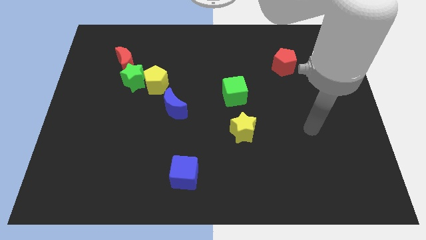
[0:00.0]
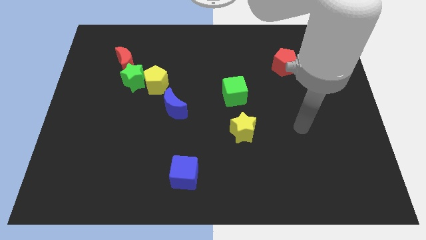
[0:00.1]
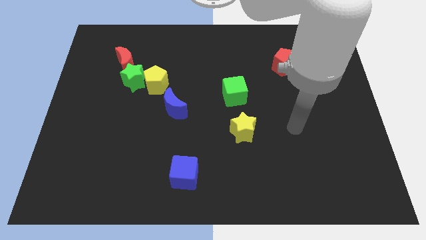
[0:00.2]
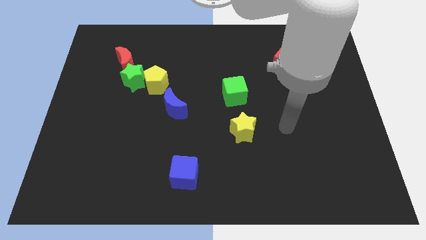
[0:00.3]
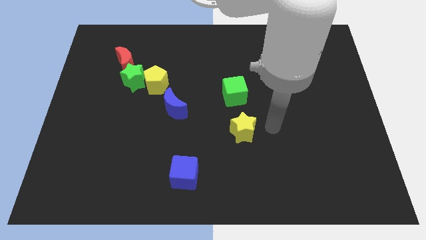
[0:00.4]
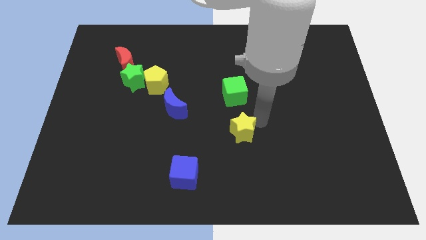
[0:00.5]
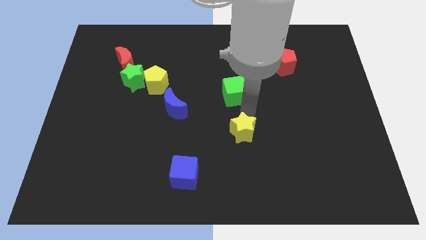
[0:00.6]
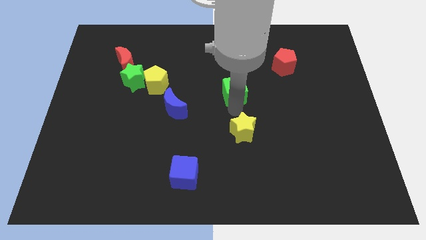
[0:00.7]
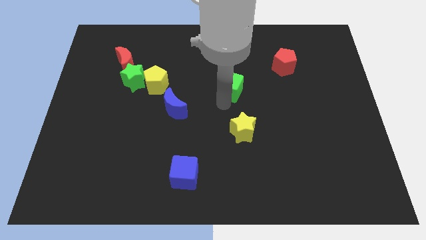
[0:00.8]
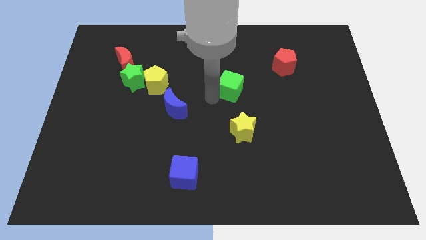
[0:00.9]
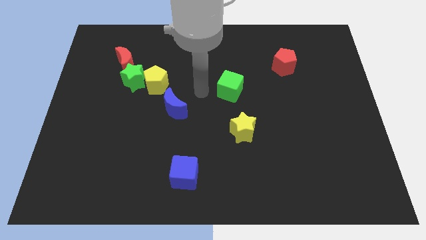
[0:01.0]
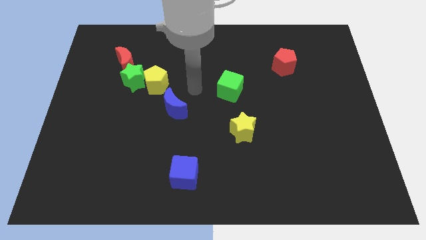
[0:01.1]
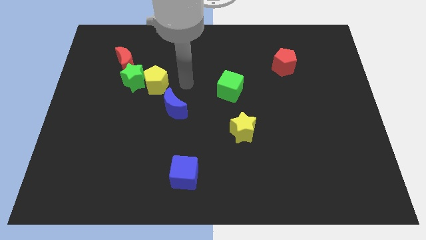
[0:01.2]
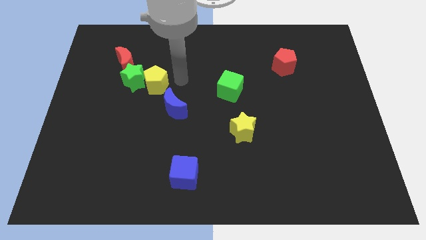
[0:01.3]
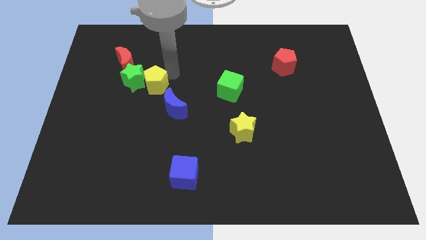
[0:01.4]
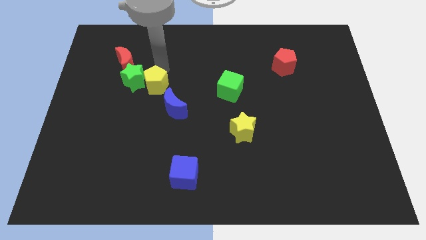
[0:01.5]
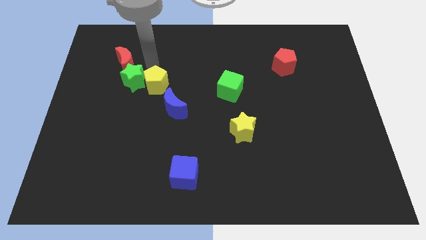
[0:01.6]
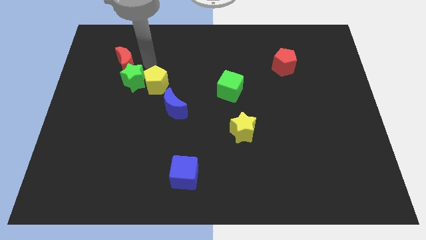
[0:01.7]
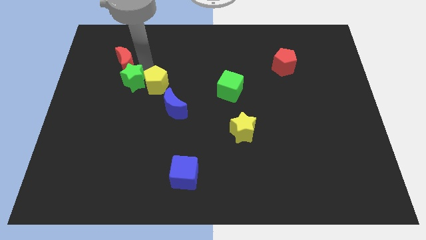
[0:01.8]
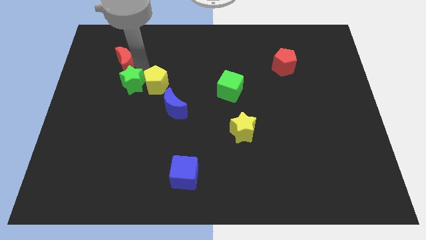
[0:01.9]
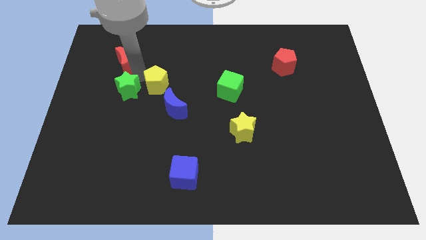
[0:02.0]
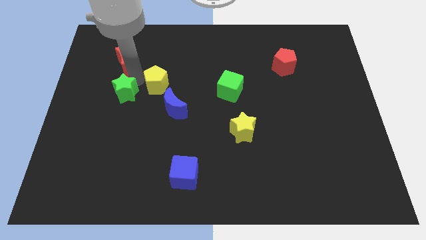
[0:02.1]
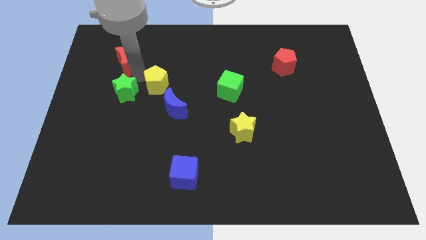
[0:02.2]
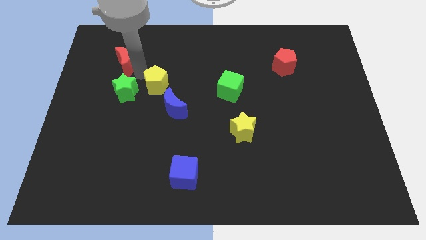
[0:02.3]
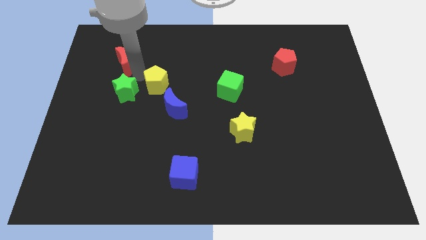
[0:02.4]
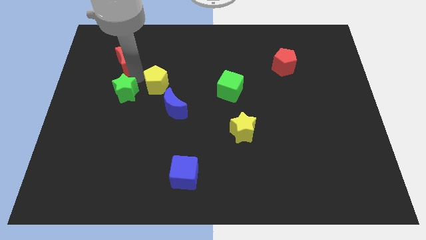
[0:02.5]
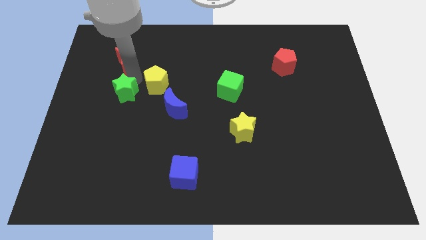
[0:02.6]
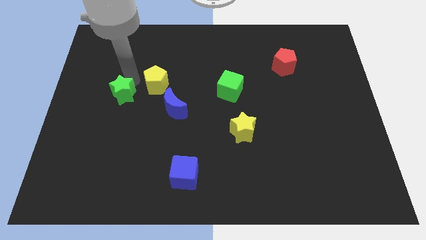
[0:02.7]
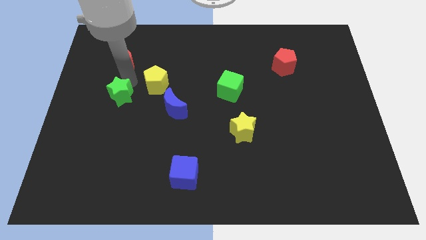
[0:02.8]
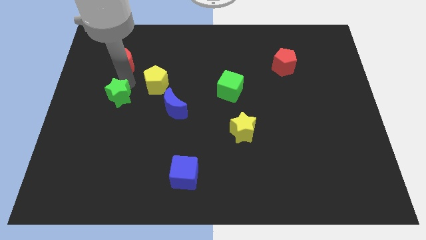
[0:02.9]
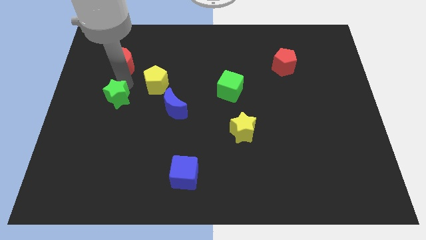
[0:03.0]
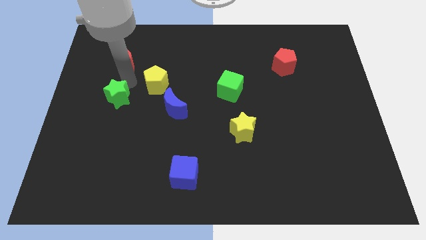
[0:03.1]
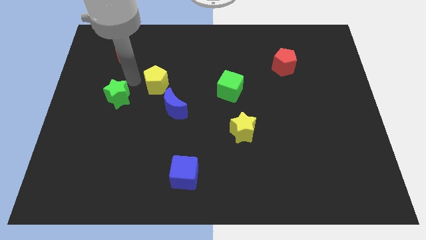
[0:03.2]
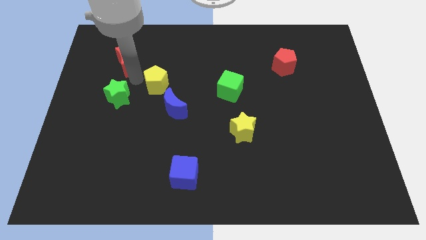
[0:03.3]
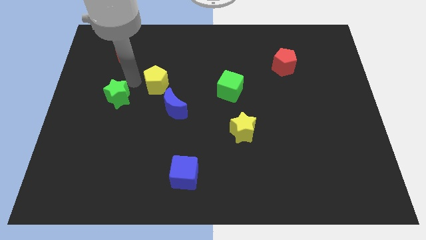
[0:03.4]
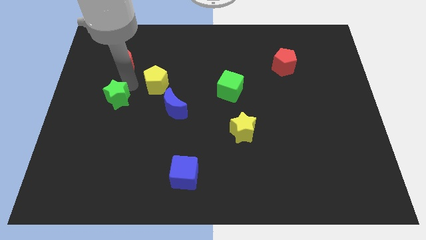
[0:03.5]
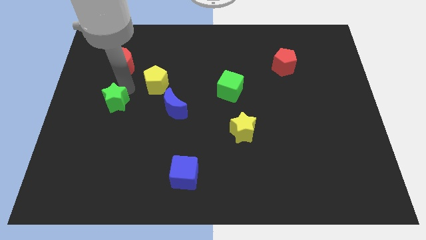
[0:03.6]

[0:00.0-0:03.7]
move the green star away from the yellow pentagon and red moon

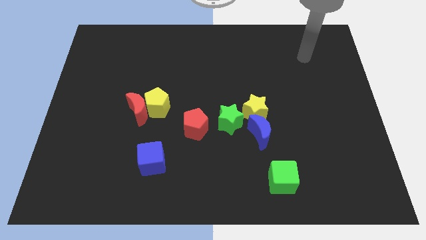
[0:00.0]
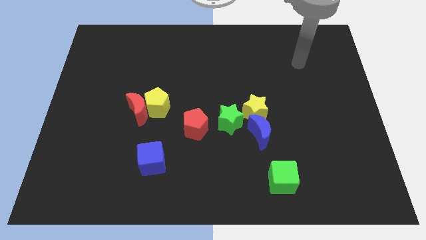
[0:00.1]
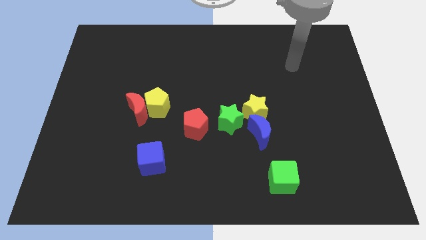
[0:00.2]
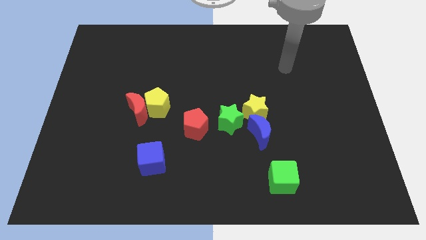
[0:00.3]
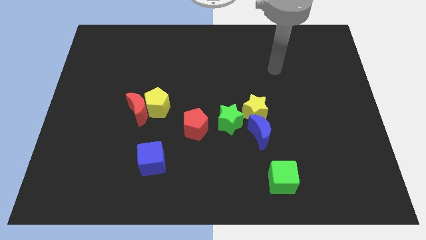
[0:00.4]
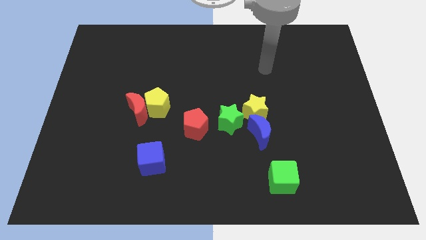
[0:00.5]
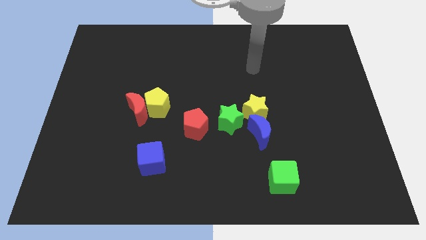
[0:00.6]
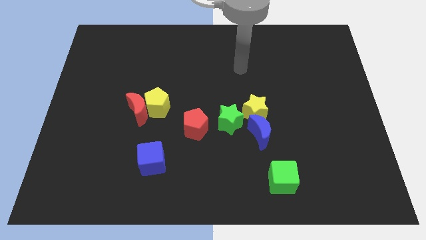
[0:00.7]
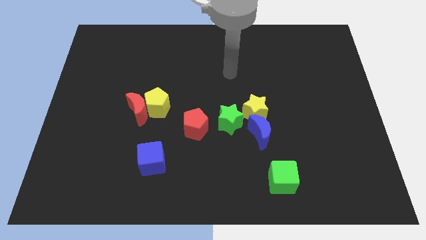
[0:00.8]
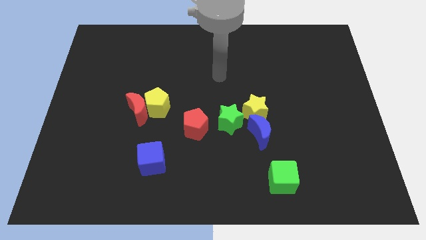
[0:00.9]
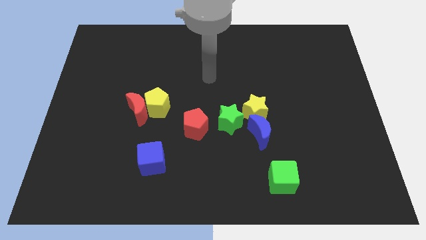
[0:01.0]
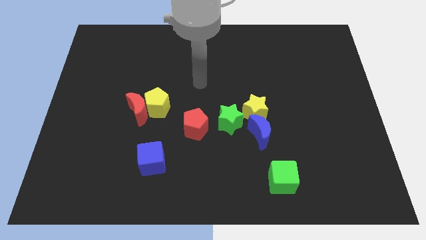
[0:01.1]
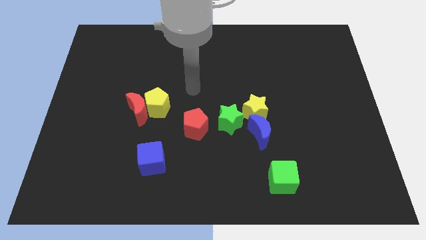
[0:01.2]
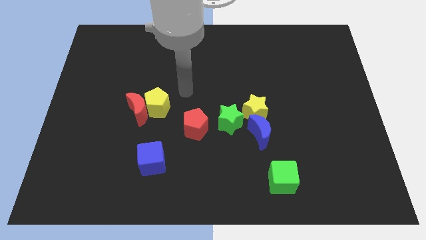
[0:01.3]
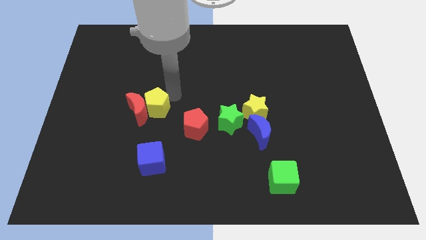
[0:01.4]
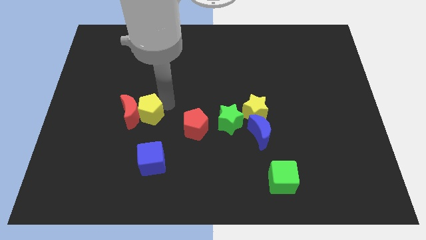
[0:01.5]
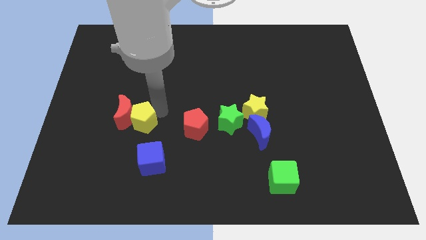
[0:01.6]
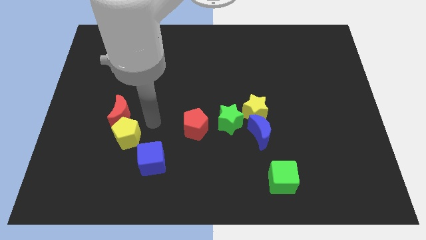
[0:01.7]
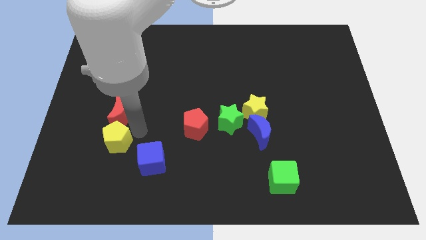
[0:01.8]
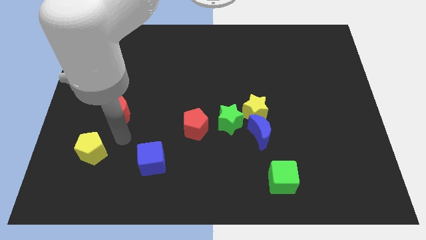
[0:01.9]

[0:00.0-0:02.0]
pull the red moon apart from the yellow pentagon

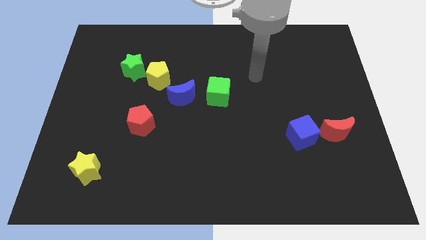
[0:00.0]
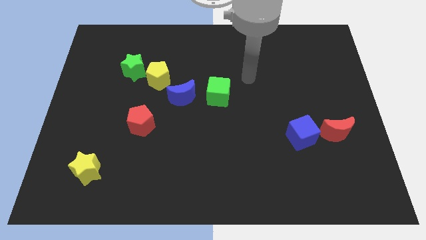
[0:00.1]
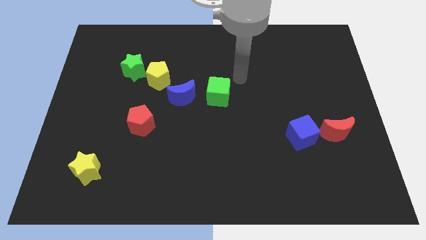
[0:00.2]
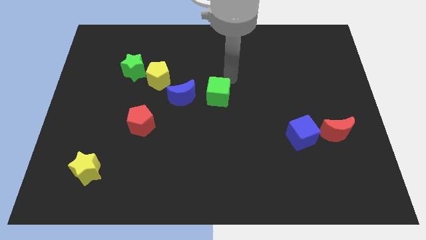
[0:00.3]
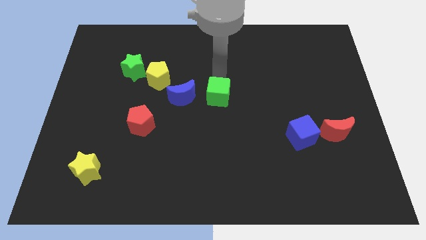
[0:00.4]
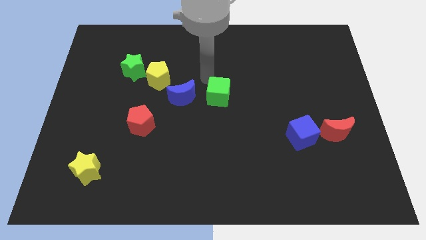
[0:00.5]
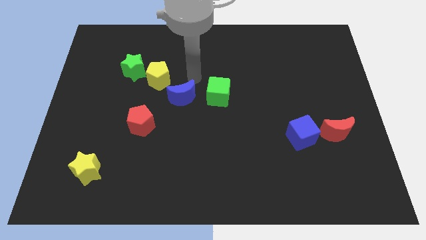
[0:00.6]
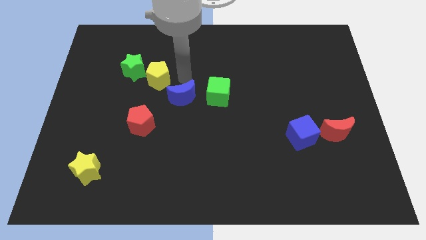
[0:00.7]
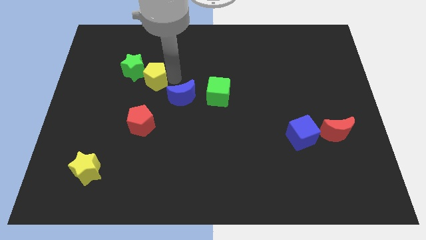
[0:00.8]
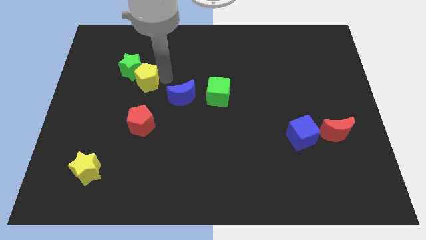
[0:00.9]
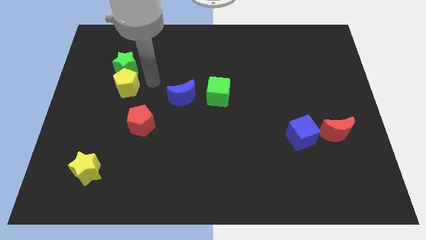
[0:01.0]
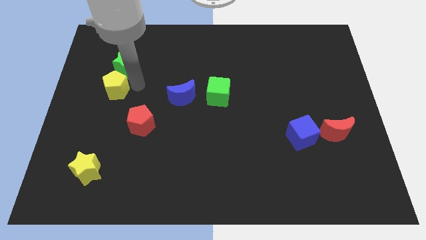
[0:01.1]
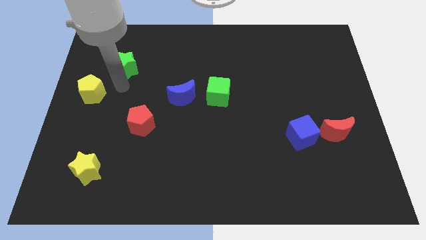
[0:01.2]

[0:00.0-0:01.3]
separate the green star from the yellow pentagon

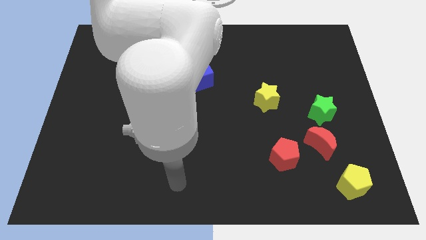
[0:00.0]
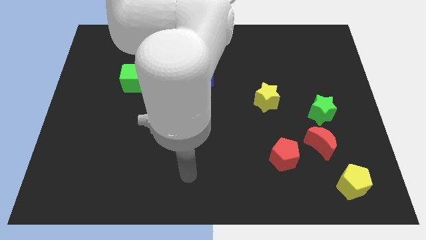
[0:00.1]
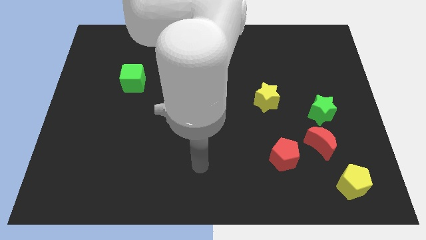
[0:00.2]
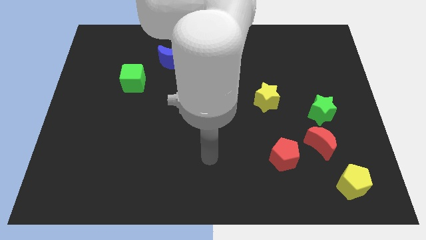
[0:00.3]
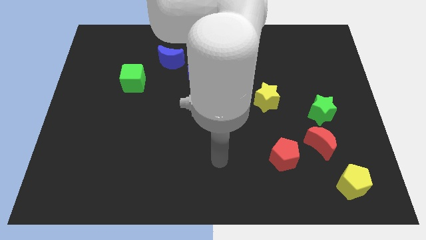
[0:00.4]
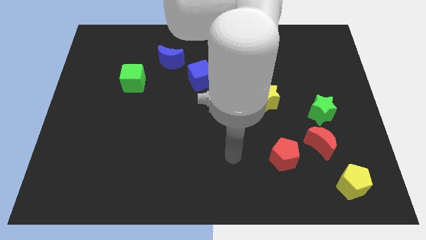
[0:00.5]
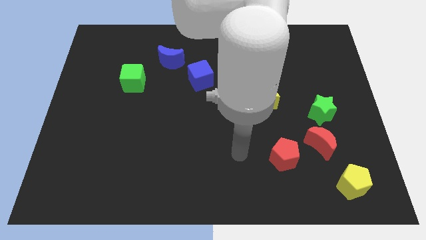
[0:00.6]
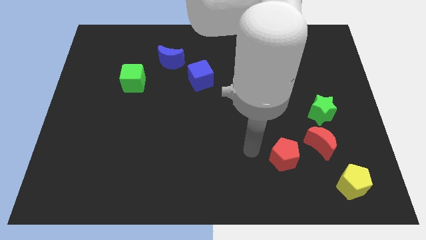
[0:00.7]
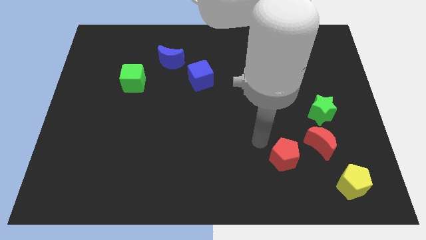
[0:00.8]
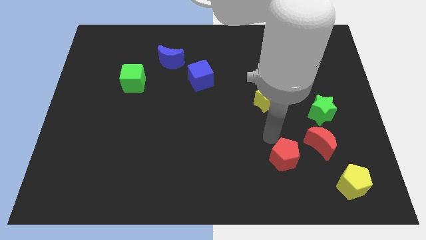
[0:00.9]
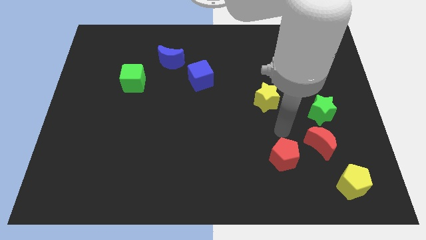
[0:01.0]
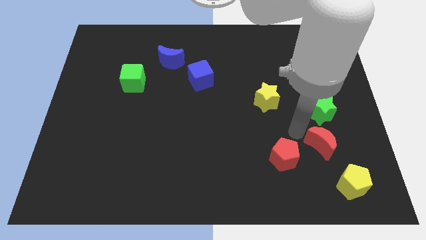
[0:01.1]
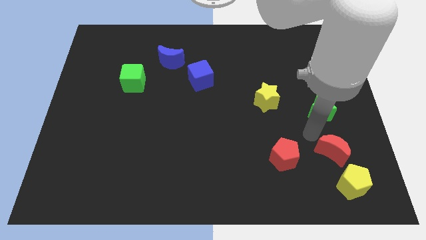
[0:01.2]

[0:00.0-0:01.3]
separate the green star from the red moon

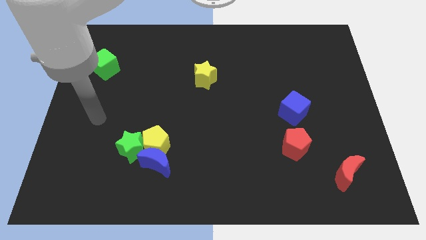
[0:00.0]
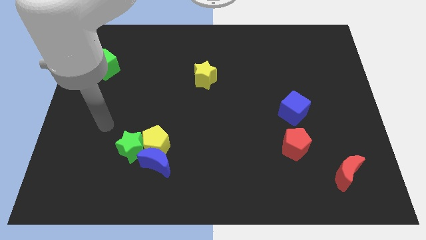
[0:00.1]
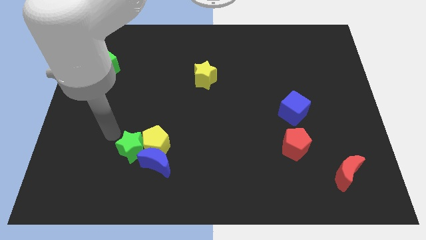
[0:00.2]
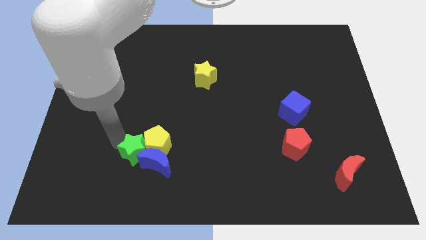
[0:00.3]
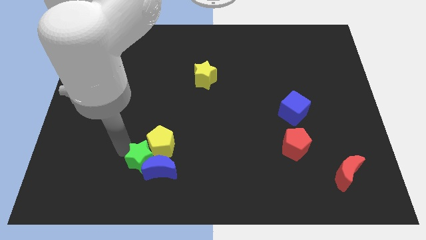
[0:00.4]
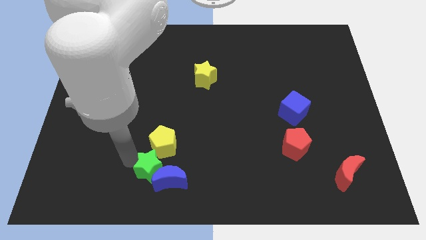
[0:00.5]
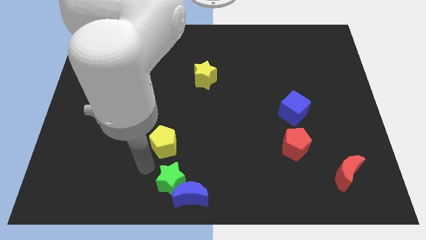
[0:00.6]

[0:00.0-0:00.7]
move the yellow pentagon away from the blue moon and green star

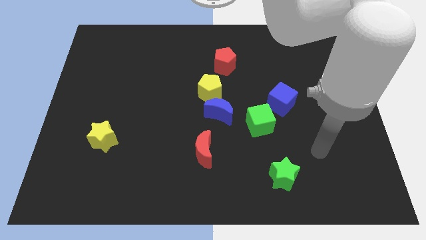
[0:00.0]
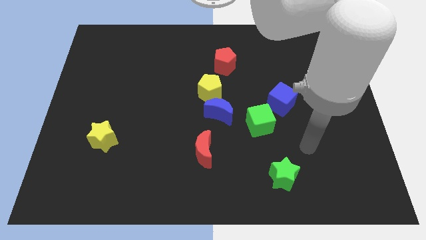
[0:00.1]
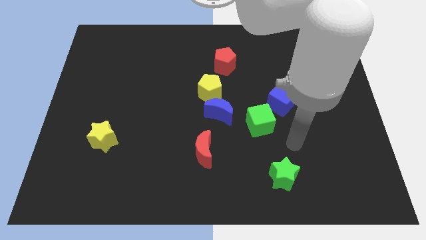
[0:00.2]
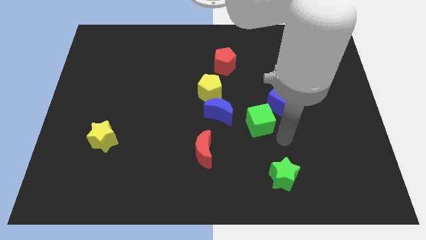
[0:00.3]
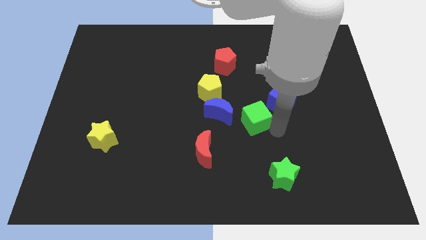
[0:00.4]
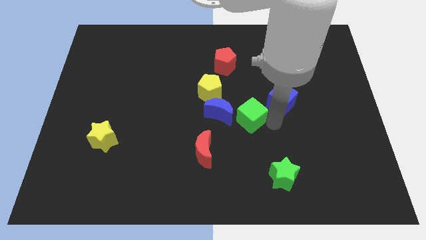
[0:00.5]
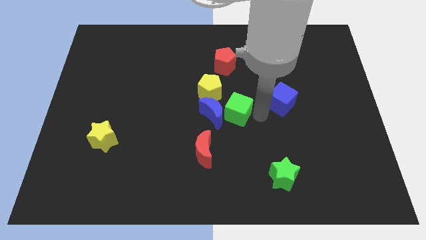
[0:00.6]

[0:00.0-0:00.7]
pull the blue cube apart from the green cube
